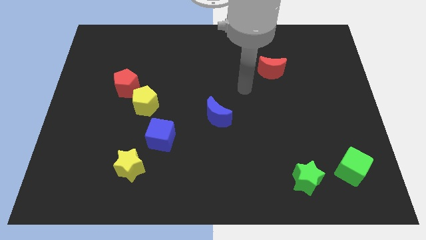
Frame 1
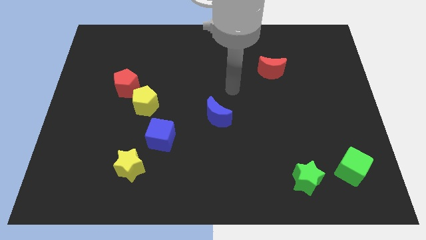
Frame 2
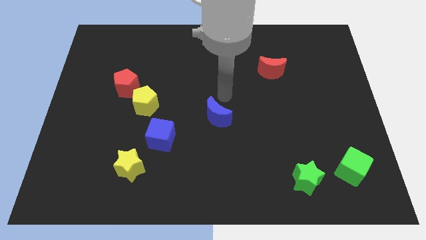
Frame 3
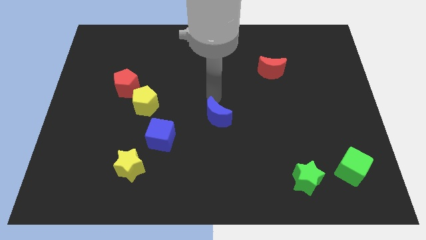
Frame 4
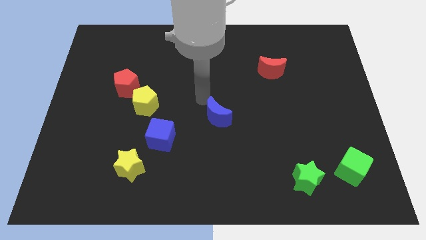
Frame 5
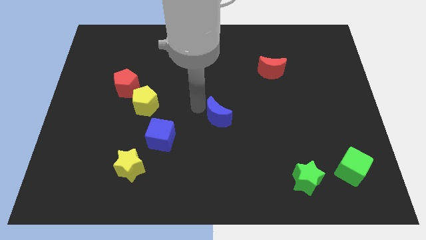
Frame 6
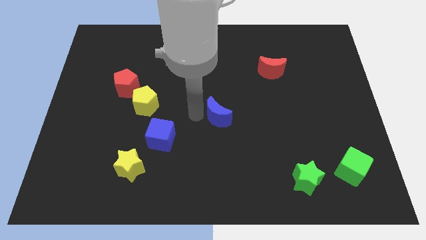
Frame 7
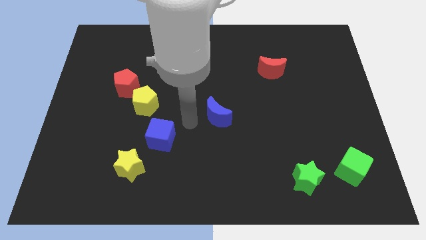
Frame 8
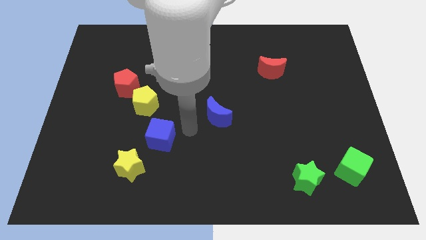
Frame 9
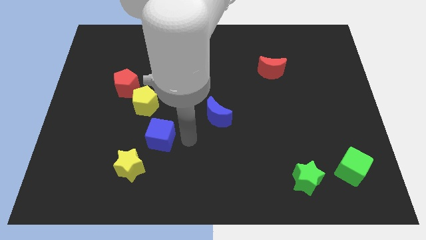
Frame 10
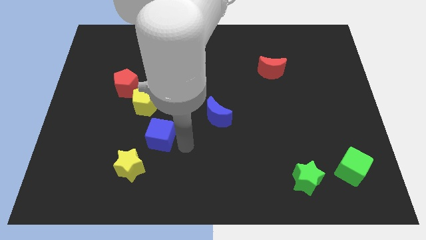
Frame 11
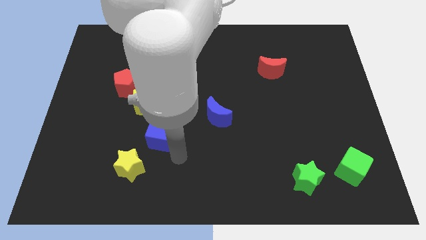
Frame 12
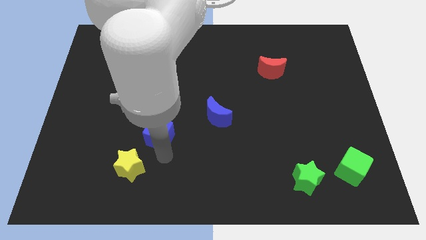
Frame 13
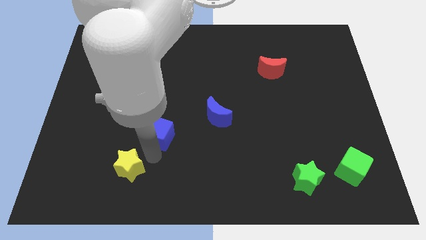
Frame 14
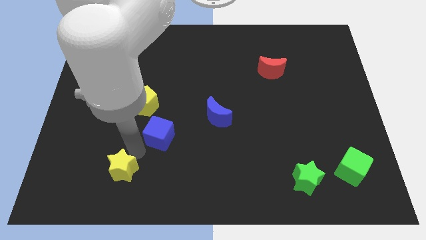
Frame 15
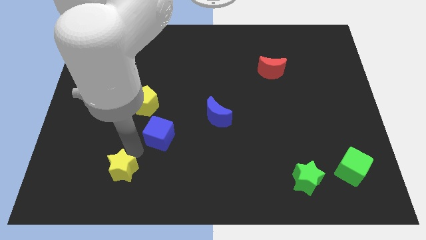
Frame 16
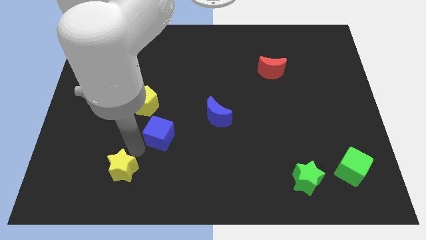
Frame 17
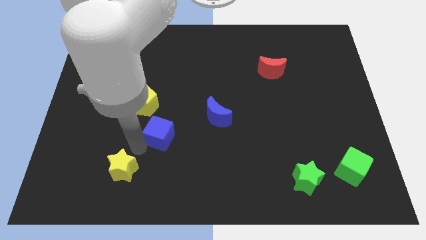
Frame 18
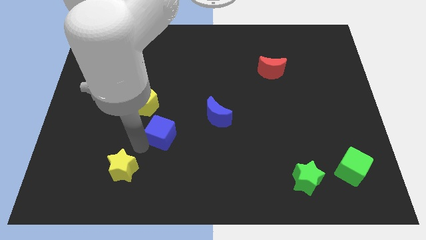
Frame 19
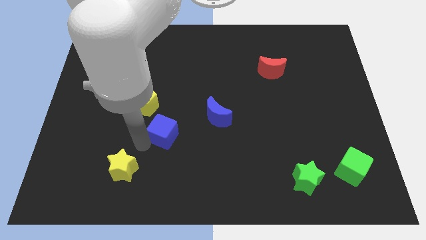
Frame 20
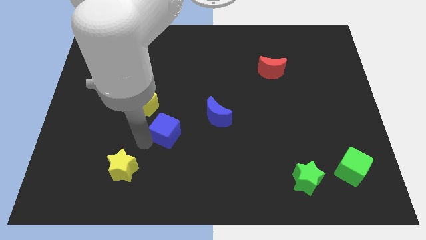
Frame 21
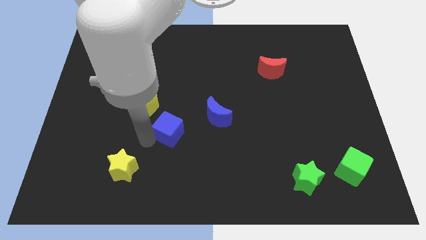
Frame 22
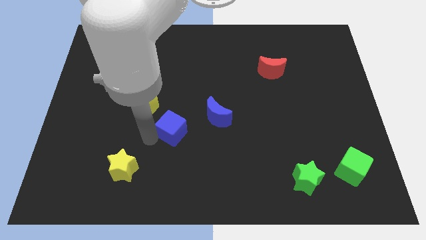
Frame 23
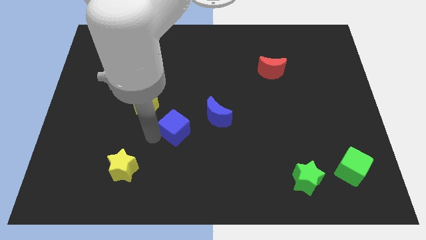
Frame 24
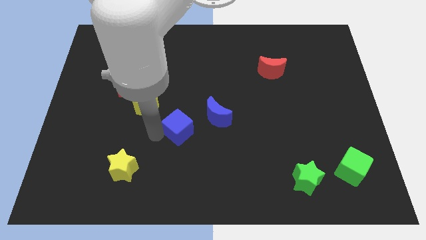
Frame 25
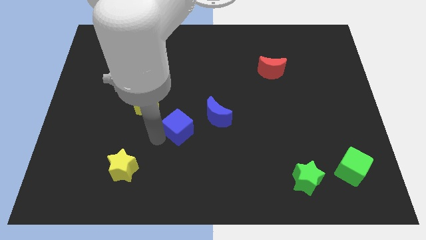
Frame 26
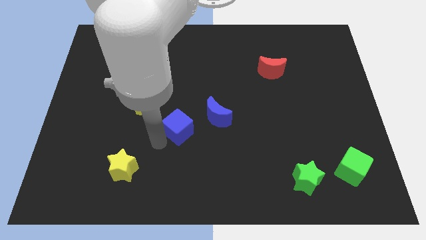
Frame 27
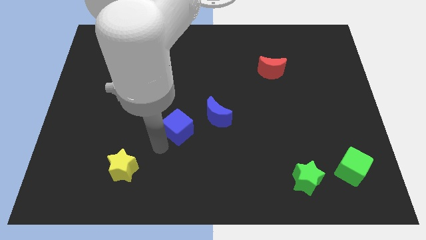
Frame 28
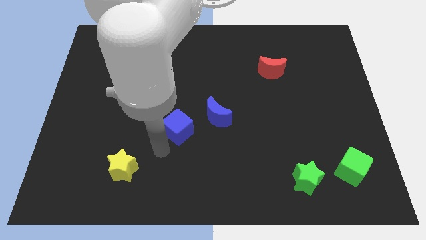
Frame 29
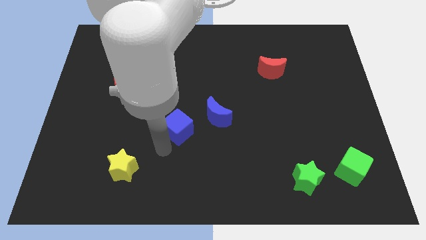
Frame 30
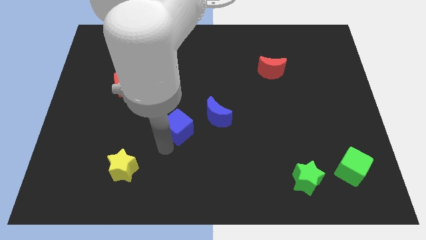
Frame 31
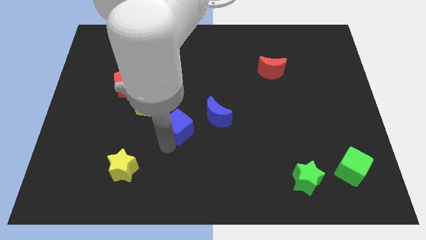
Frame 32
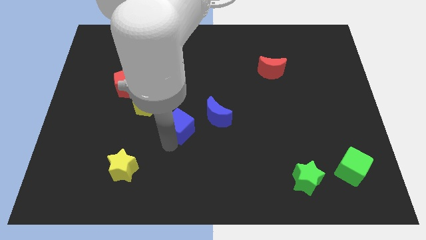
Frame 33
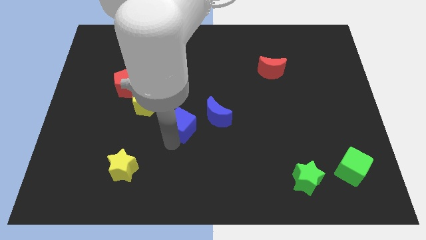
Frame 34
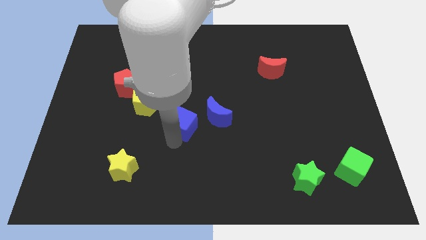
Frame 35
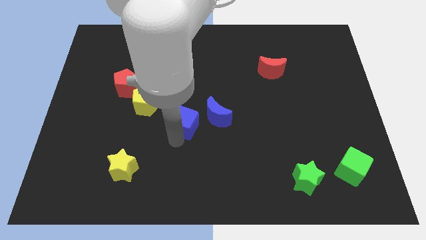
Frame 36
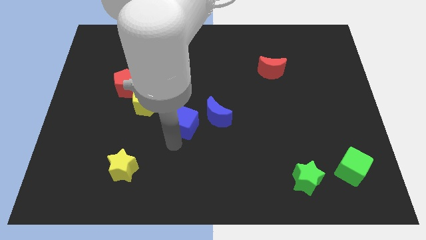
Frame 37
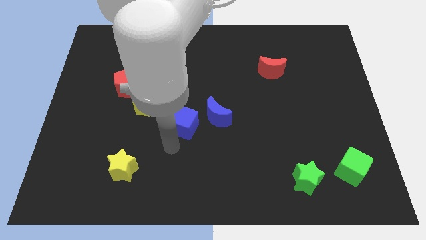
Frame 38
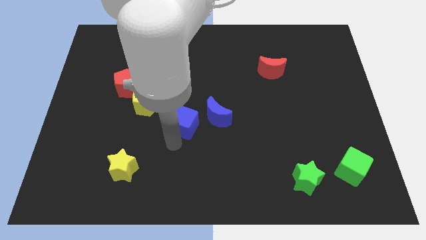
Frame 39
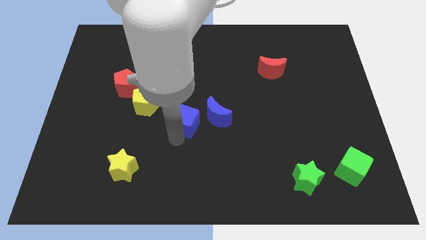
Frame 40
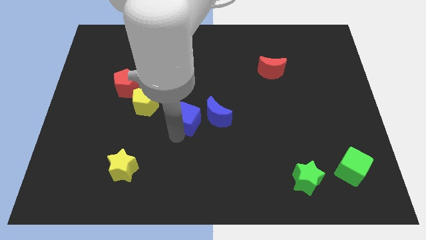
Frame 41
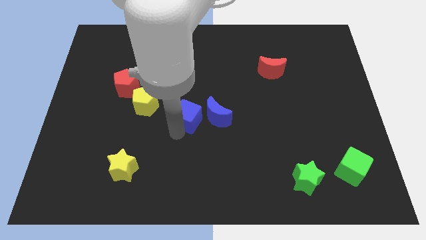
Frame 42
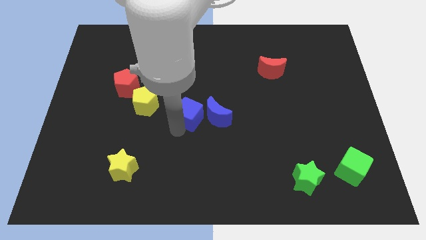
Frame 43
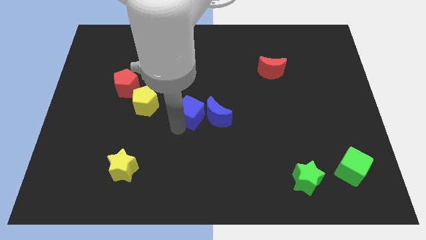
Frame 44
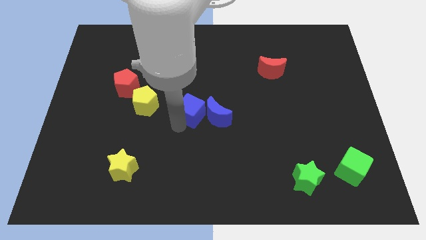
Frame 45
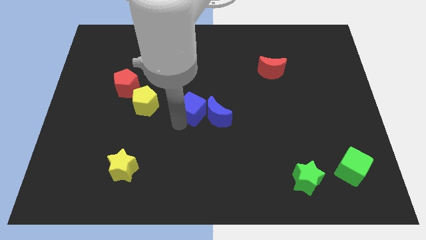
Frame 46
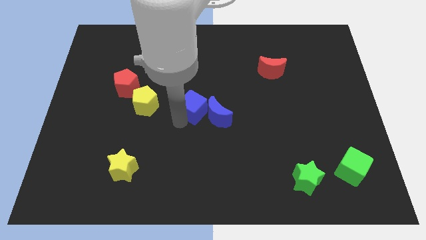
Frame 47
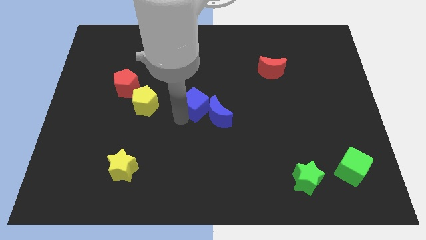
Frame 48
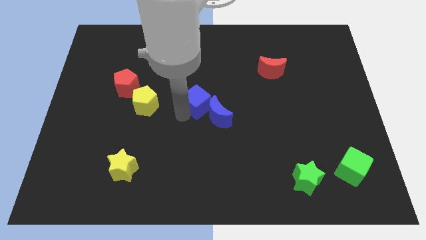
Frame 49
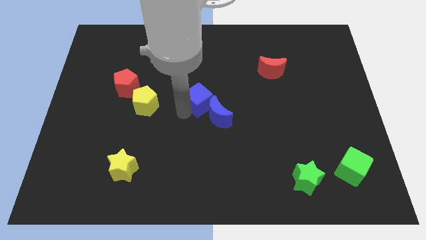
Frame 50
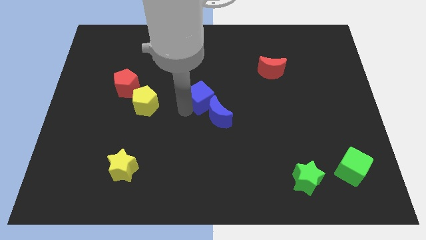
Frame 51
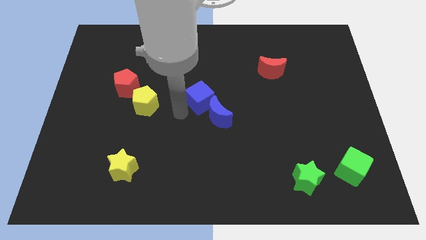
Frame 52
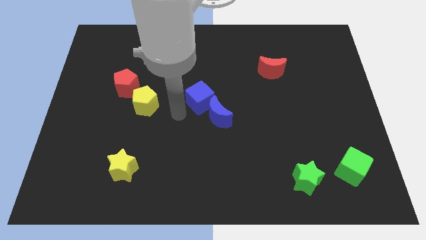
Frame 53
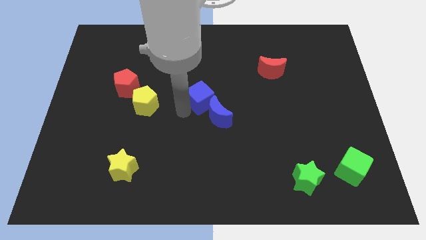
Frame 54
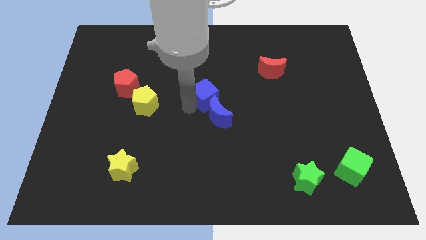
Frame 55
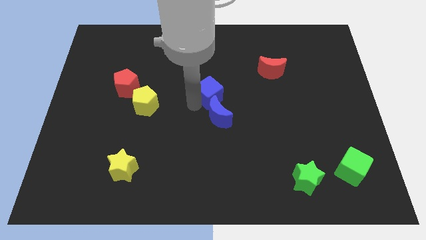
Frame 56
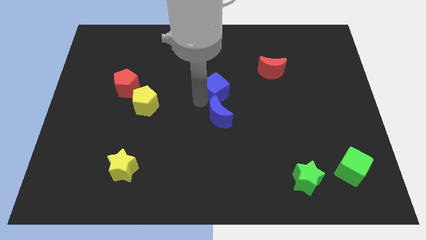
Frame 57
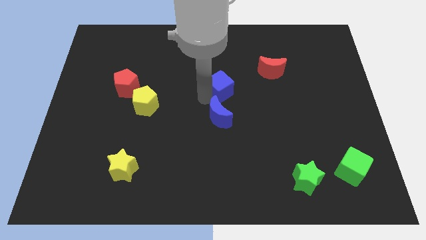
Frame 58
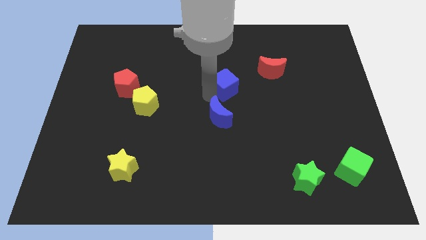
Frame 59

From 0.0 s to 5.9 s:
move the blue cube diagonally up and right

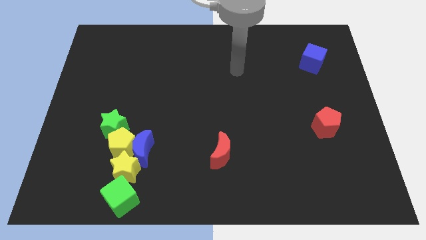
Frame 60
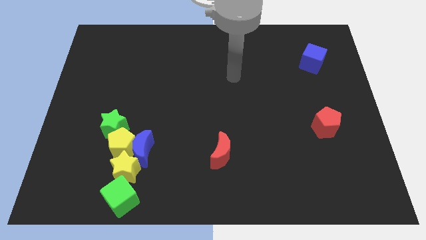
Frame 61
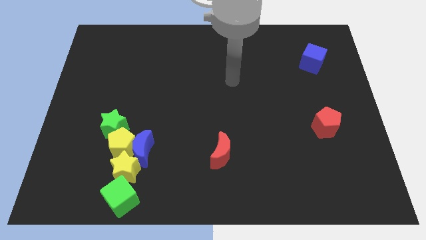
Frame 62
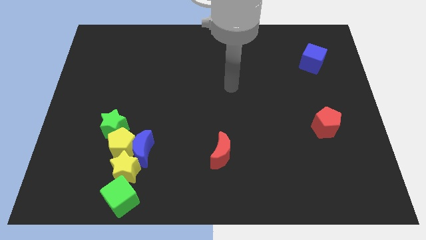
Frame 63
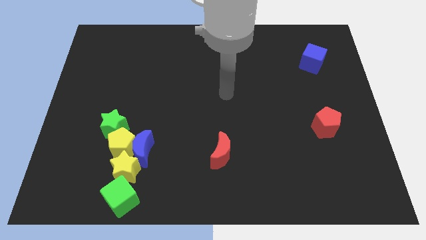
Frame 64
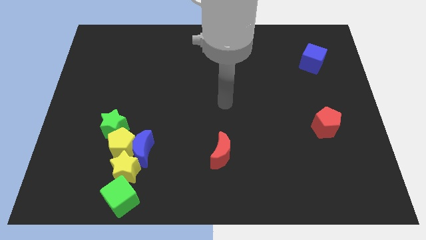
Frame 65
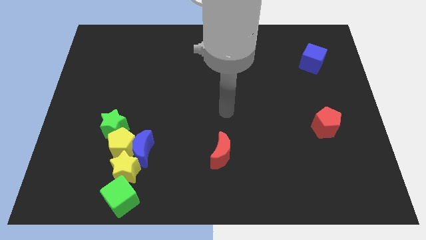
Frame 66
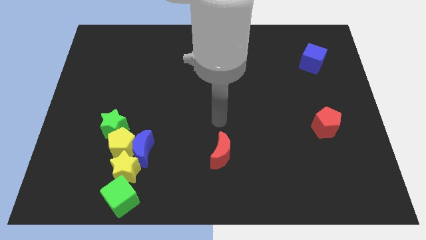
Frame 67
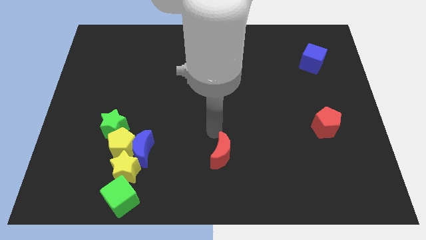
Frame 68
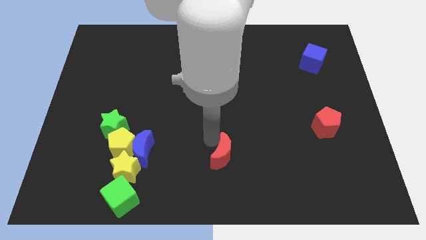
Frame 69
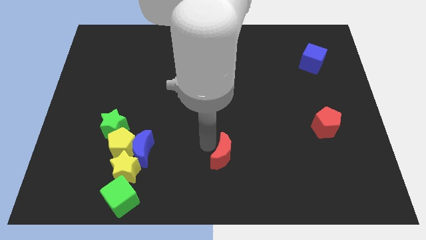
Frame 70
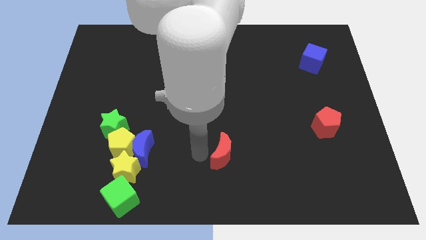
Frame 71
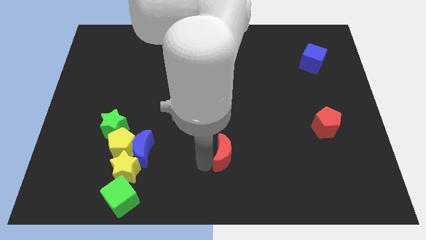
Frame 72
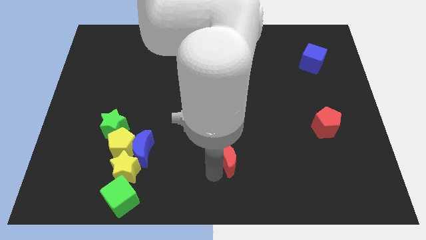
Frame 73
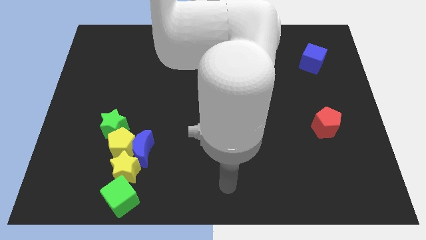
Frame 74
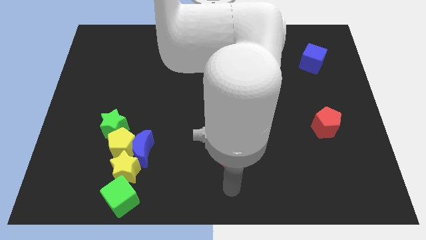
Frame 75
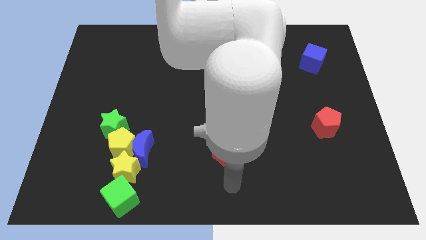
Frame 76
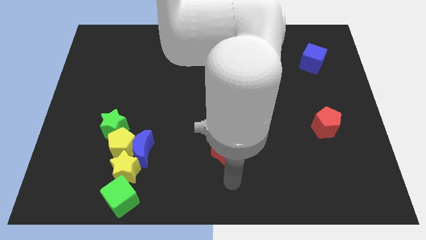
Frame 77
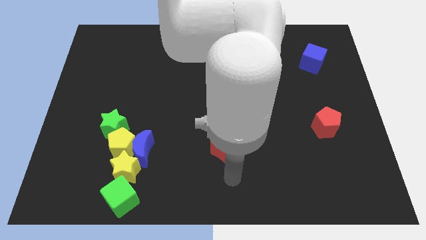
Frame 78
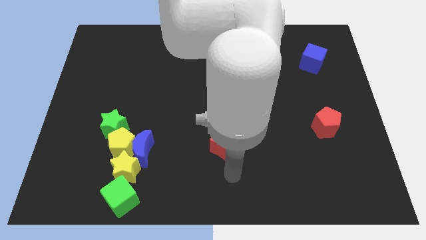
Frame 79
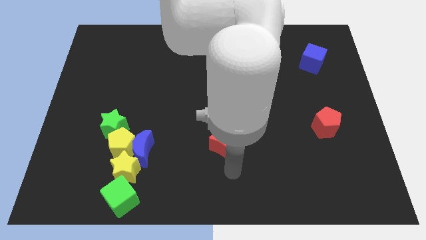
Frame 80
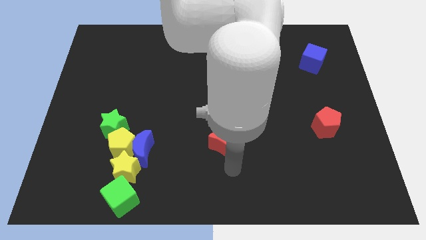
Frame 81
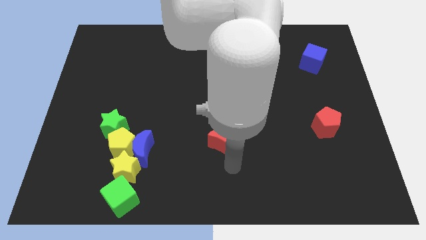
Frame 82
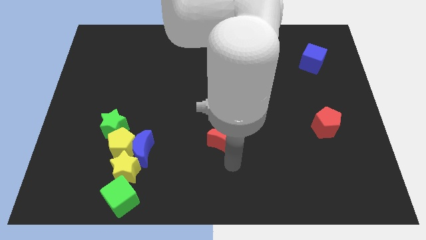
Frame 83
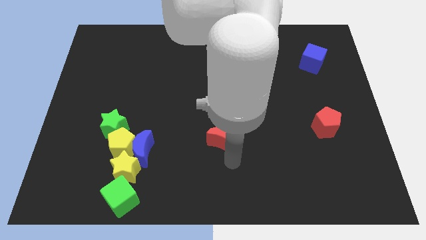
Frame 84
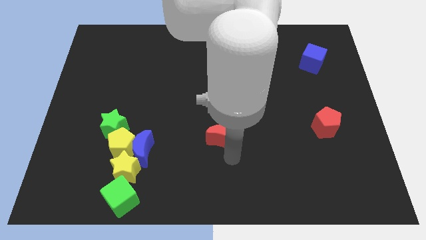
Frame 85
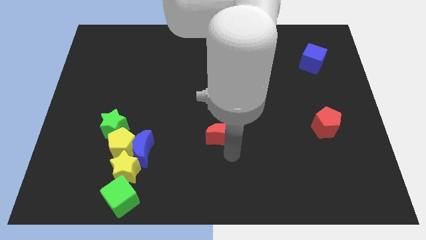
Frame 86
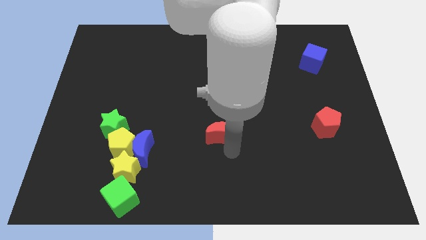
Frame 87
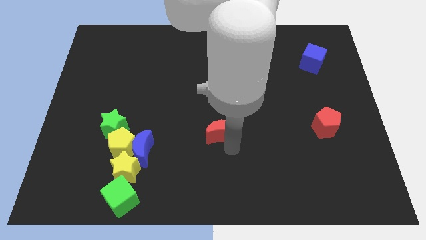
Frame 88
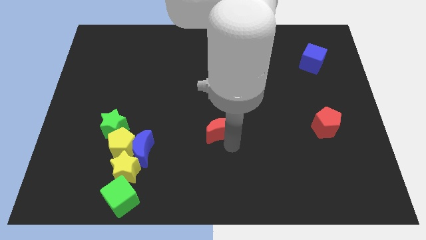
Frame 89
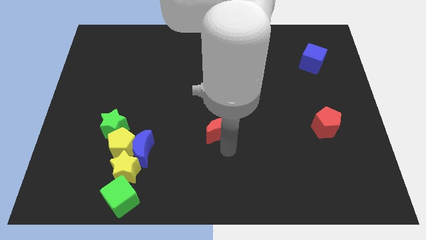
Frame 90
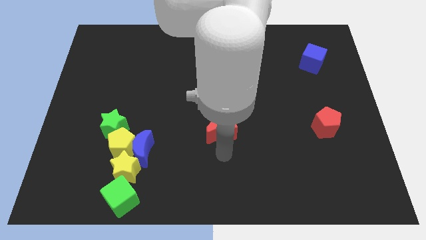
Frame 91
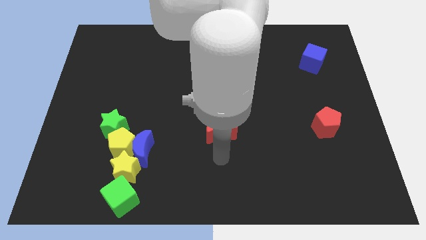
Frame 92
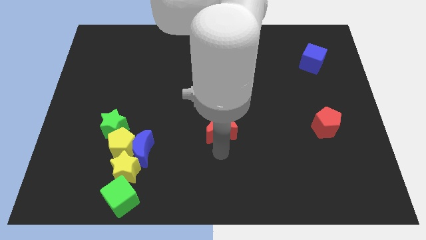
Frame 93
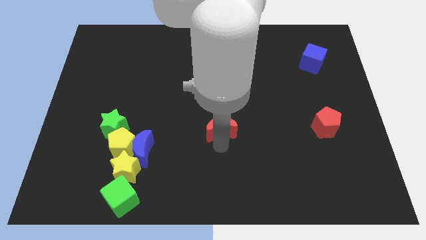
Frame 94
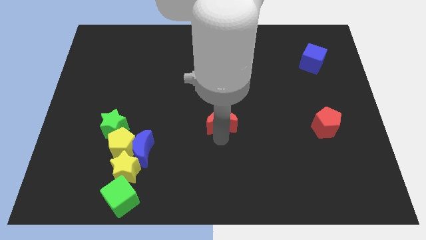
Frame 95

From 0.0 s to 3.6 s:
move the red moon a bit upwards
